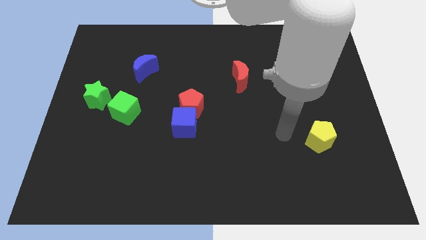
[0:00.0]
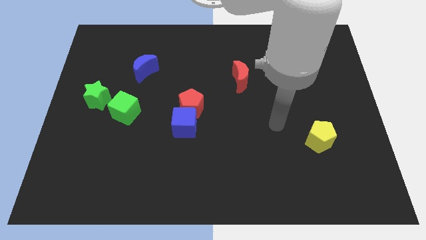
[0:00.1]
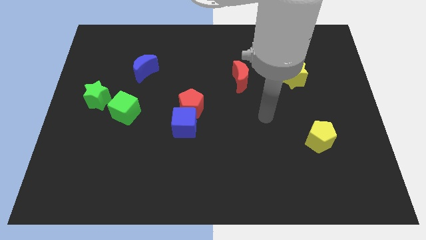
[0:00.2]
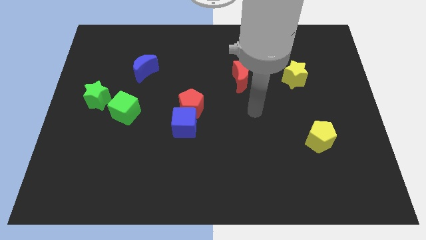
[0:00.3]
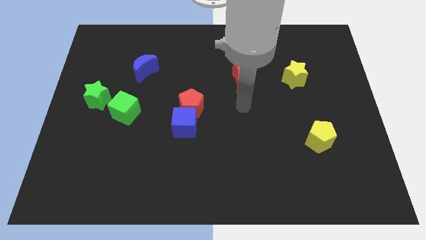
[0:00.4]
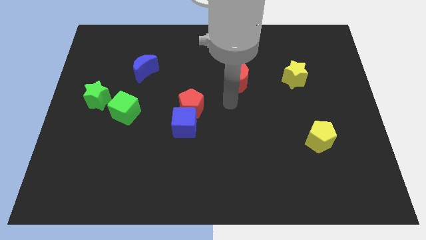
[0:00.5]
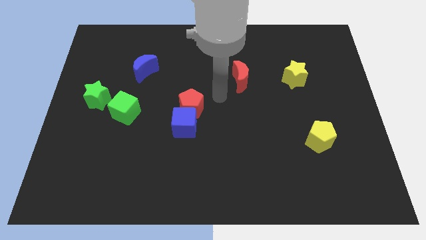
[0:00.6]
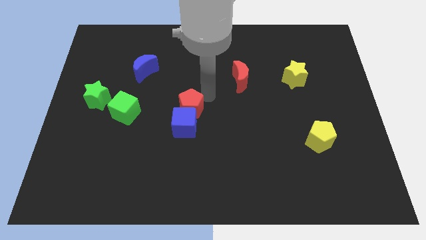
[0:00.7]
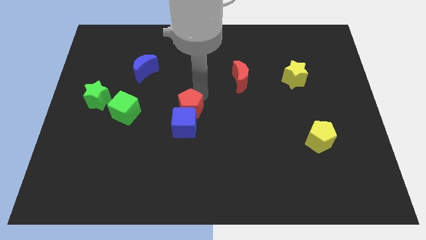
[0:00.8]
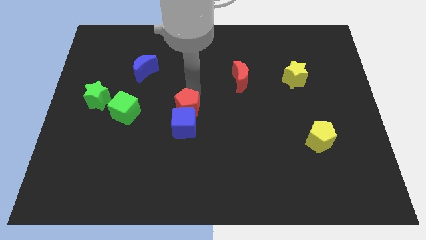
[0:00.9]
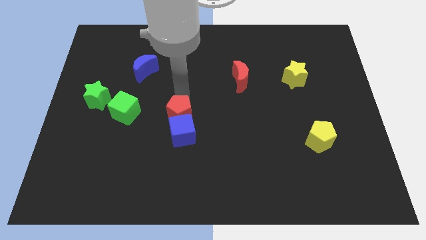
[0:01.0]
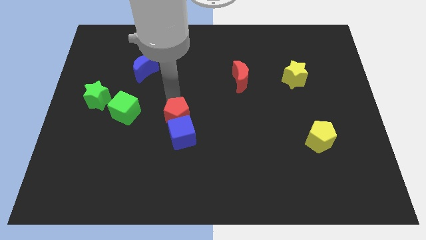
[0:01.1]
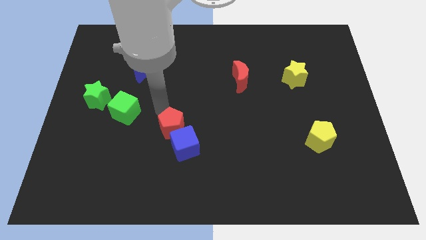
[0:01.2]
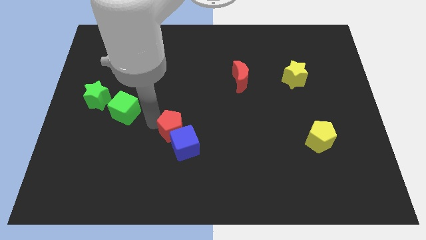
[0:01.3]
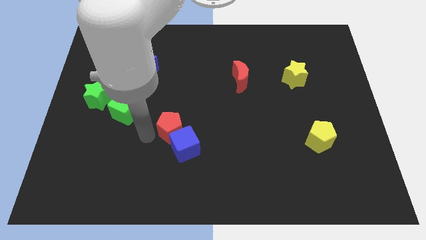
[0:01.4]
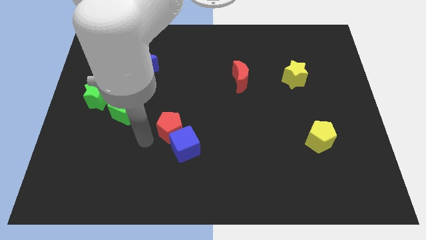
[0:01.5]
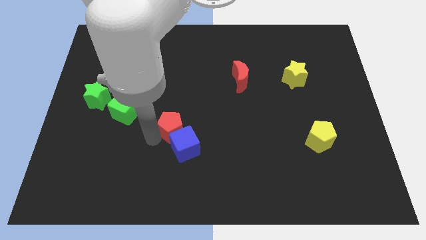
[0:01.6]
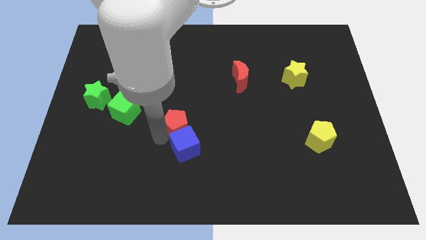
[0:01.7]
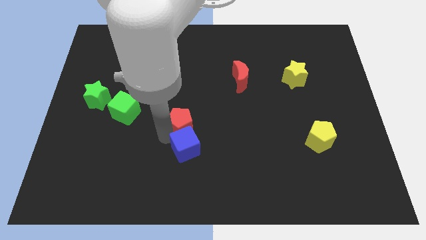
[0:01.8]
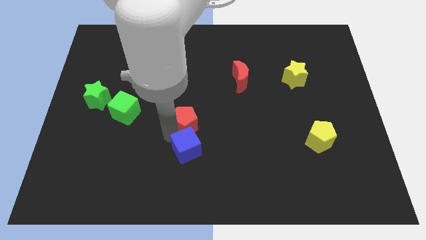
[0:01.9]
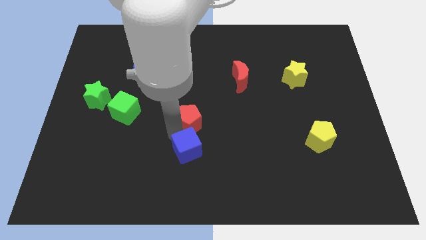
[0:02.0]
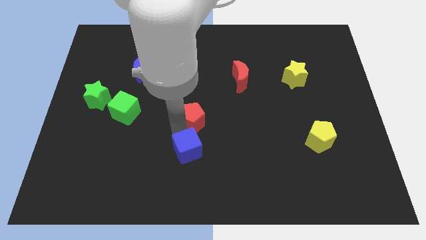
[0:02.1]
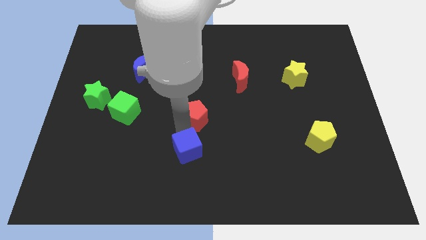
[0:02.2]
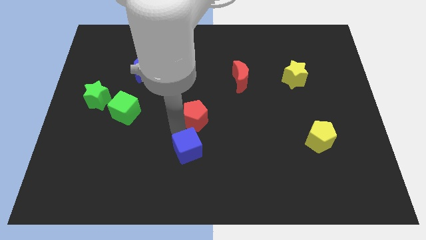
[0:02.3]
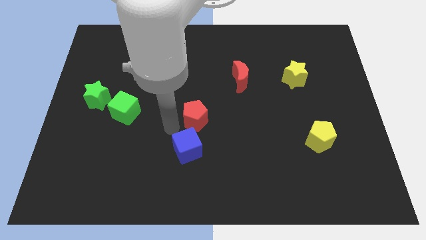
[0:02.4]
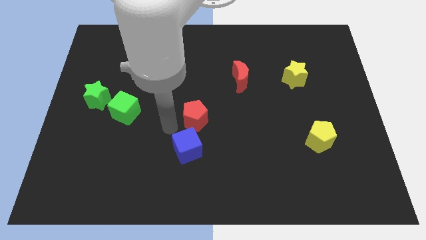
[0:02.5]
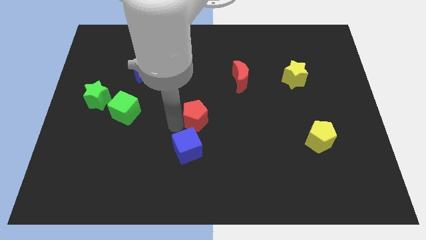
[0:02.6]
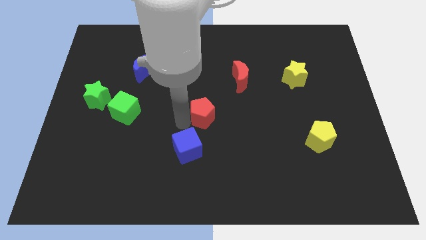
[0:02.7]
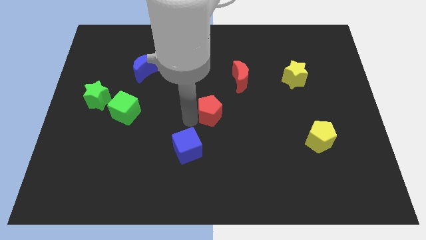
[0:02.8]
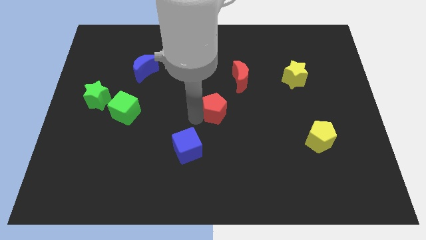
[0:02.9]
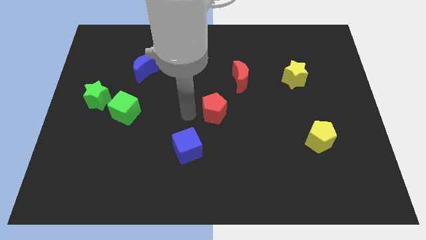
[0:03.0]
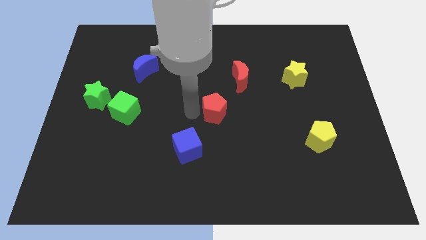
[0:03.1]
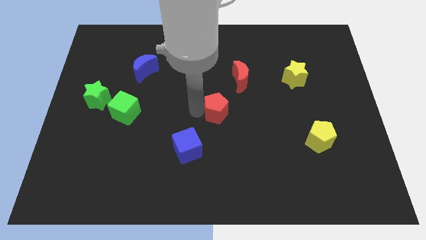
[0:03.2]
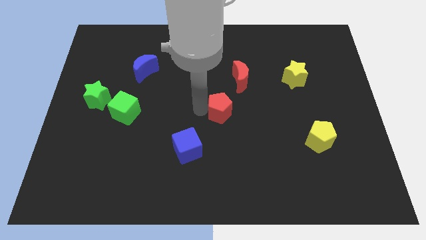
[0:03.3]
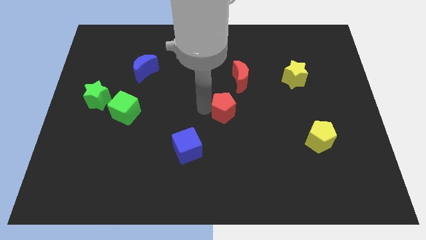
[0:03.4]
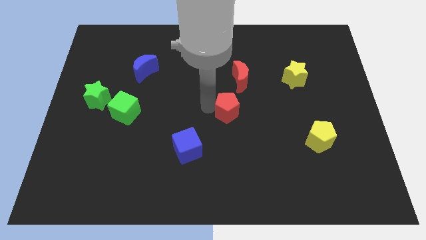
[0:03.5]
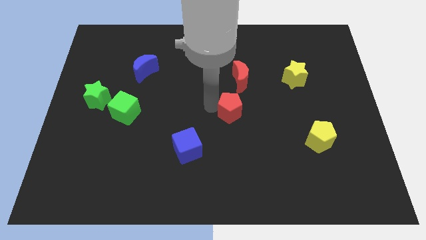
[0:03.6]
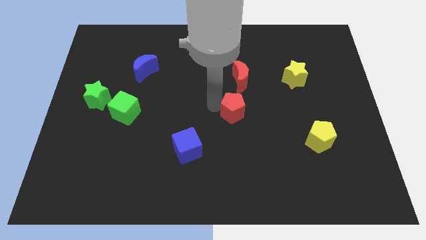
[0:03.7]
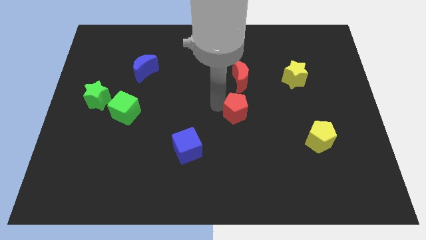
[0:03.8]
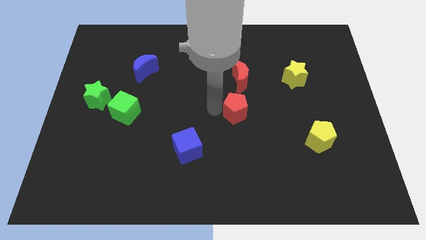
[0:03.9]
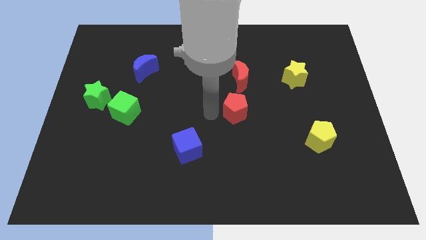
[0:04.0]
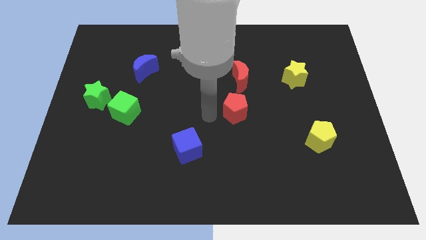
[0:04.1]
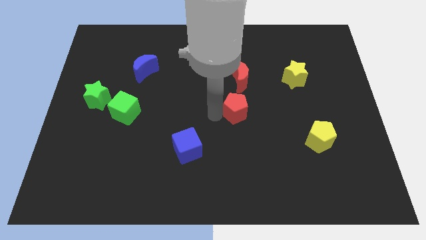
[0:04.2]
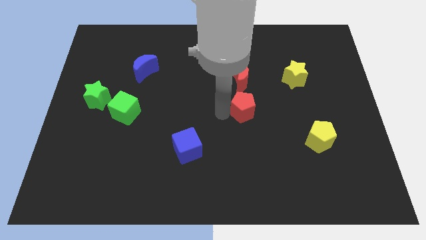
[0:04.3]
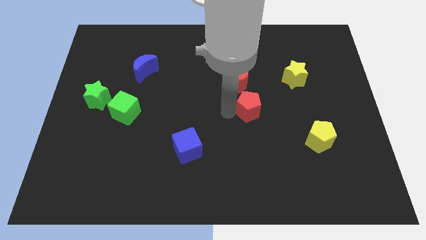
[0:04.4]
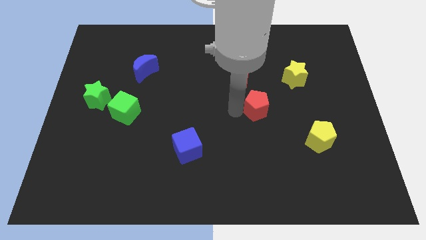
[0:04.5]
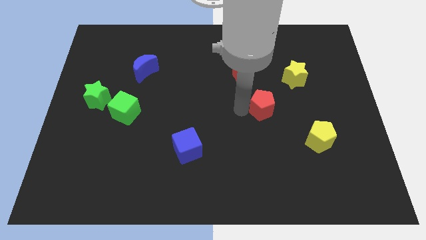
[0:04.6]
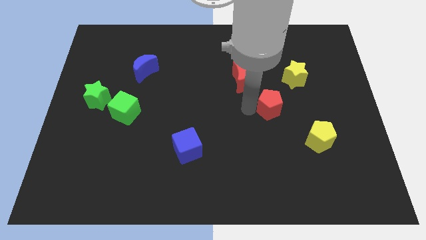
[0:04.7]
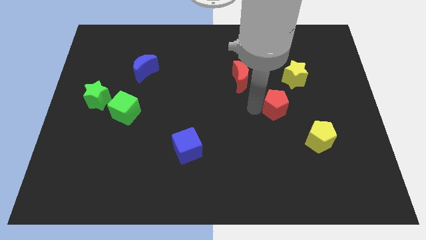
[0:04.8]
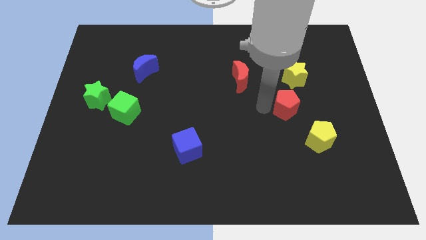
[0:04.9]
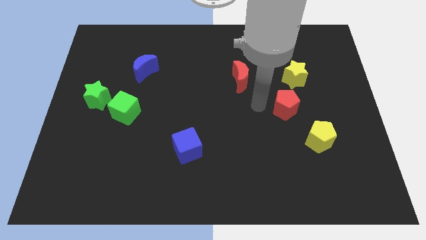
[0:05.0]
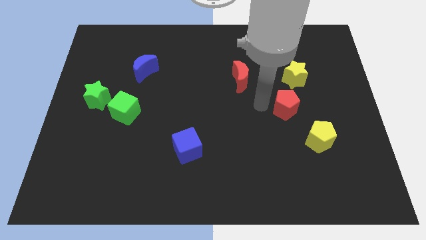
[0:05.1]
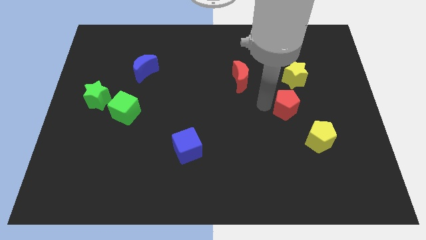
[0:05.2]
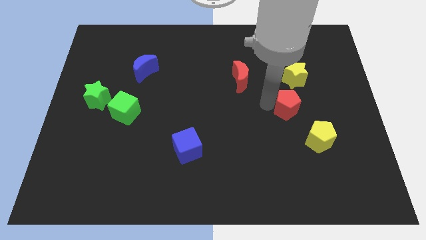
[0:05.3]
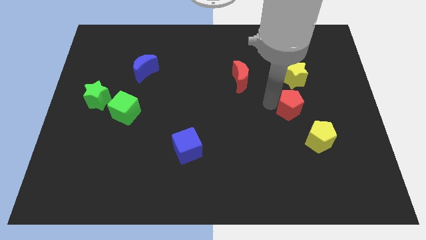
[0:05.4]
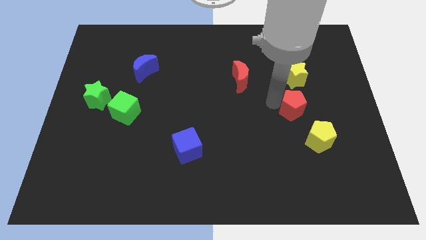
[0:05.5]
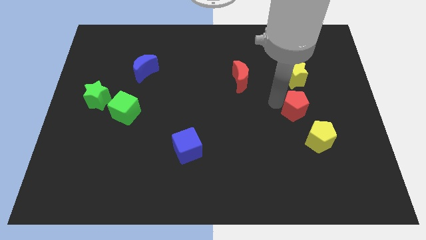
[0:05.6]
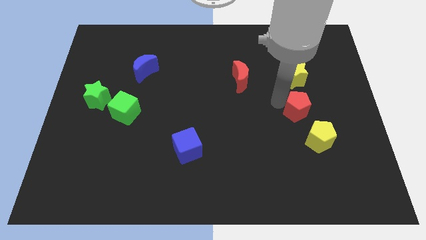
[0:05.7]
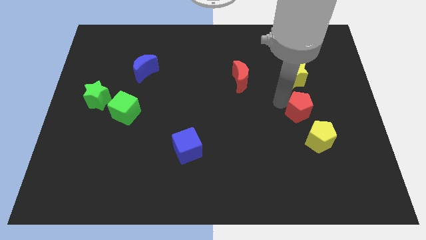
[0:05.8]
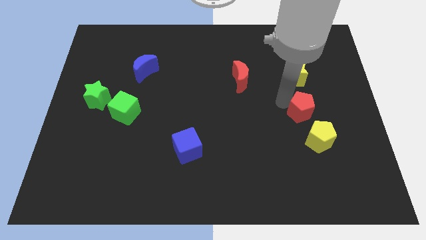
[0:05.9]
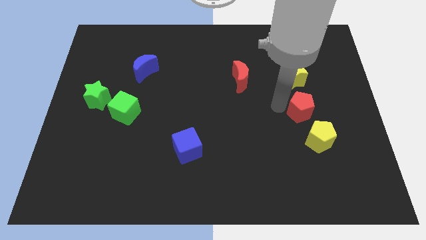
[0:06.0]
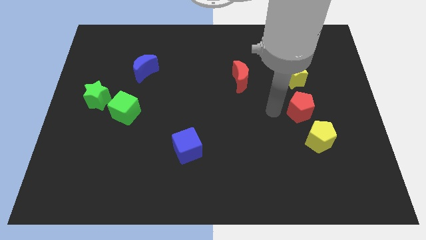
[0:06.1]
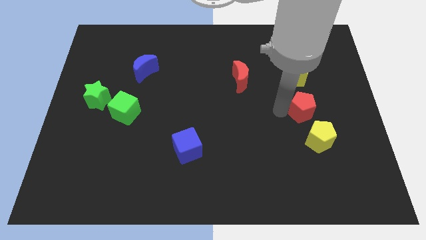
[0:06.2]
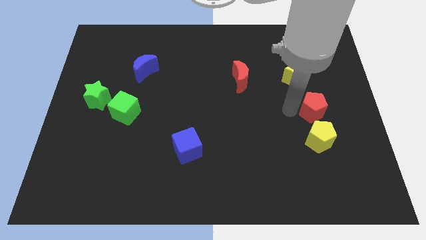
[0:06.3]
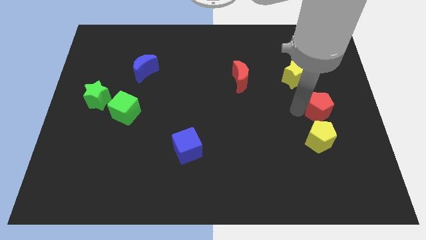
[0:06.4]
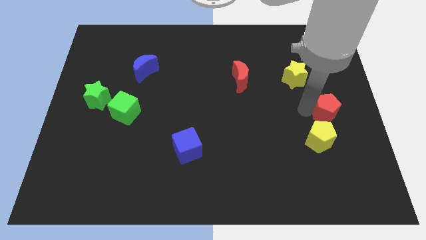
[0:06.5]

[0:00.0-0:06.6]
put the red pentagon to the center right

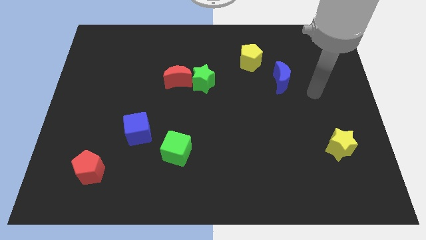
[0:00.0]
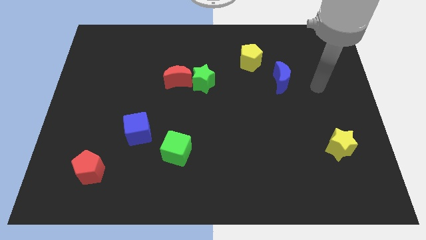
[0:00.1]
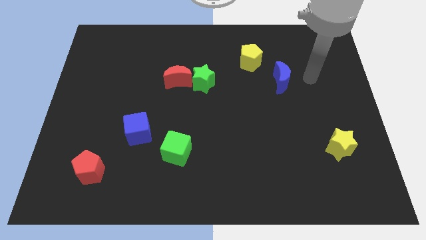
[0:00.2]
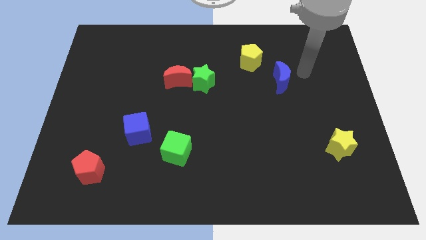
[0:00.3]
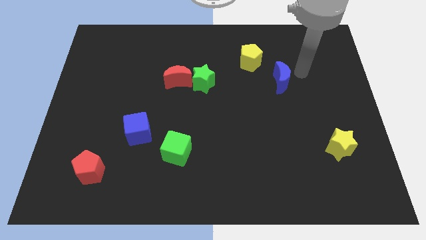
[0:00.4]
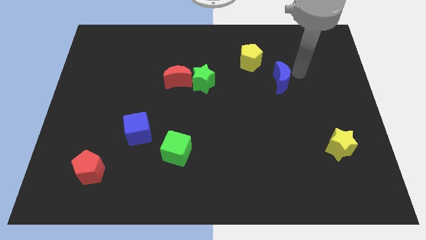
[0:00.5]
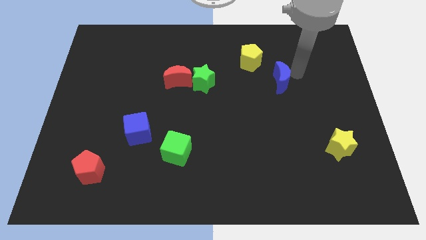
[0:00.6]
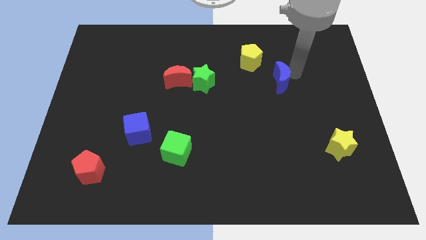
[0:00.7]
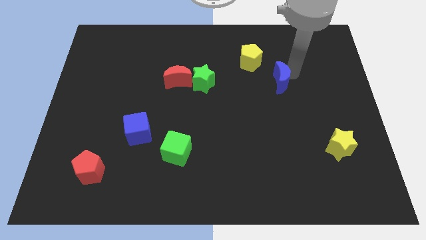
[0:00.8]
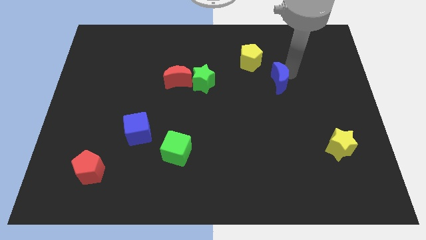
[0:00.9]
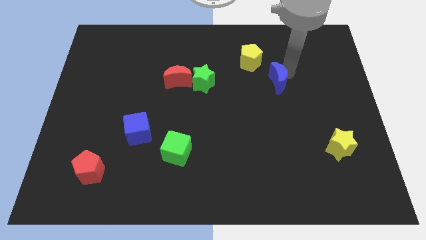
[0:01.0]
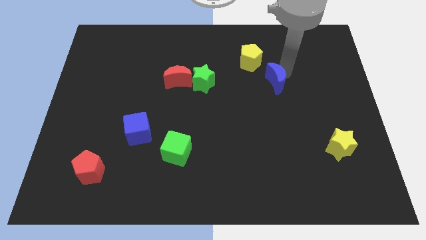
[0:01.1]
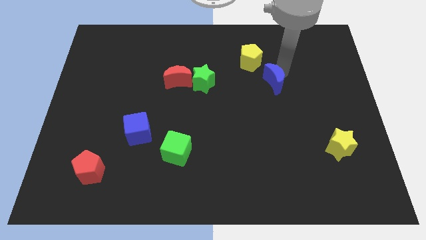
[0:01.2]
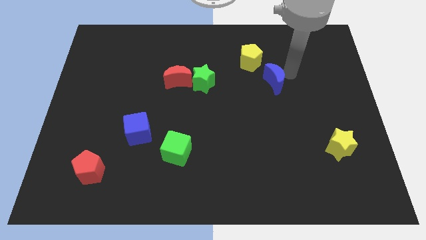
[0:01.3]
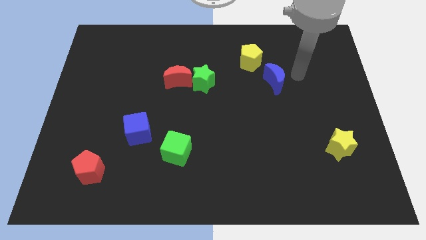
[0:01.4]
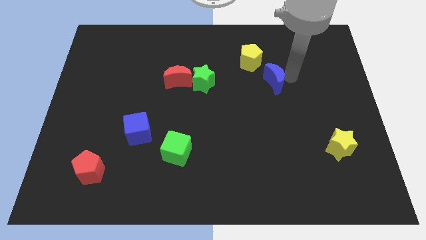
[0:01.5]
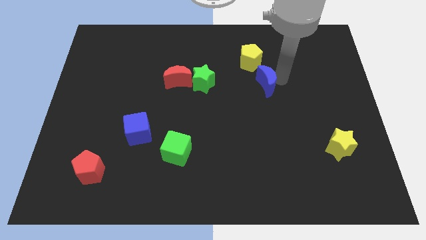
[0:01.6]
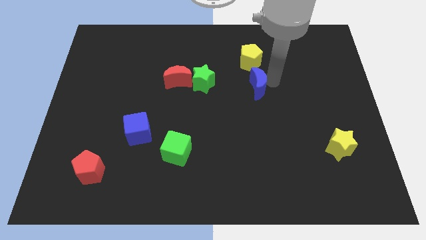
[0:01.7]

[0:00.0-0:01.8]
put the blue moon to the center of the board
